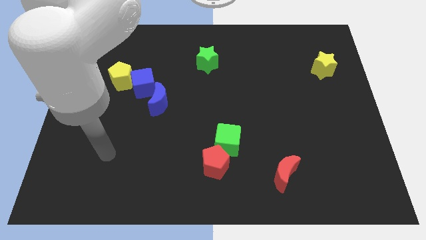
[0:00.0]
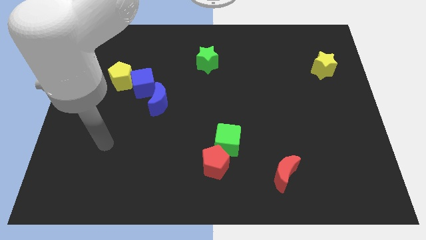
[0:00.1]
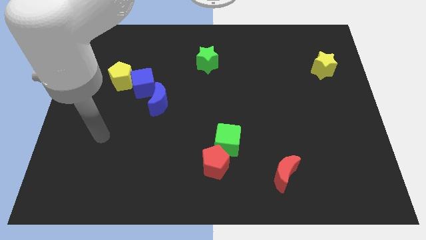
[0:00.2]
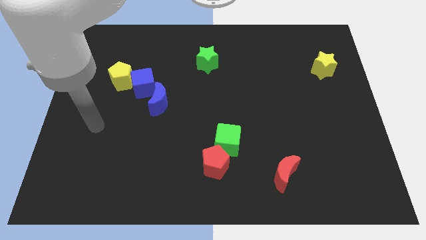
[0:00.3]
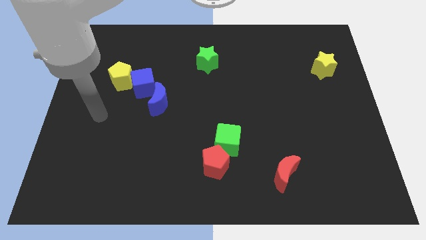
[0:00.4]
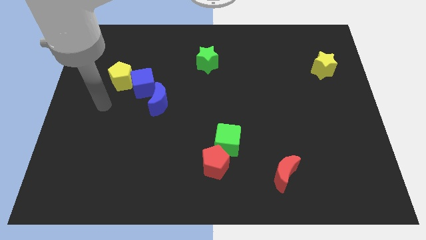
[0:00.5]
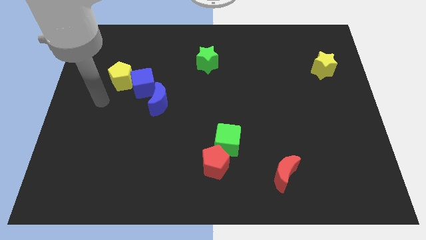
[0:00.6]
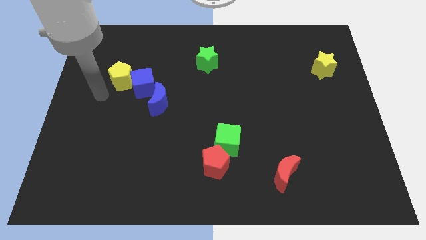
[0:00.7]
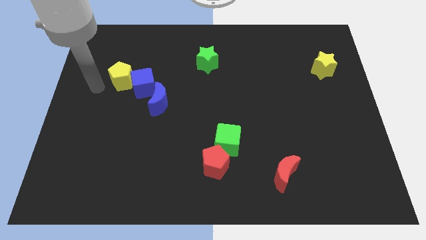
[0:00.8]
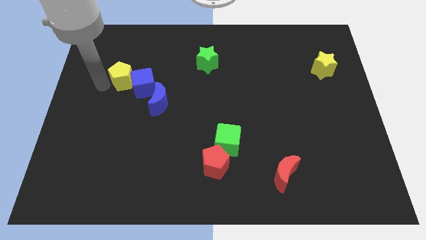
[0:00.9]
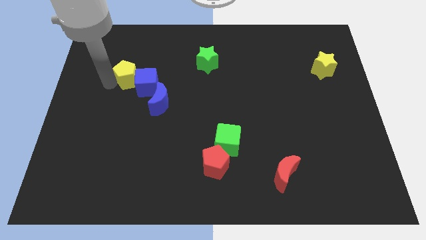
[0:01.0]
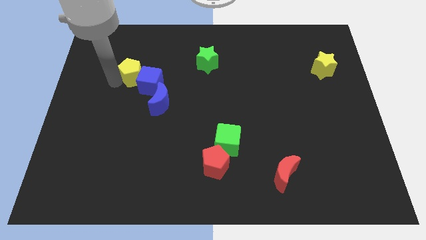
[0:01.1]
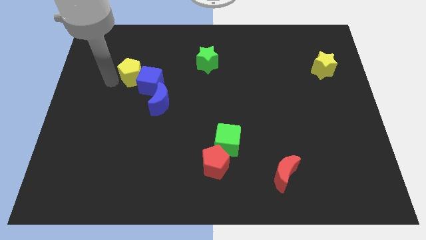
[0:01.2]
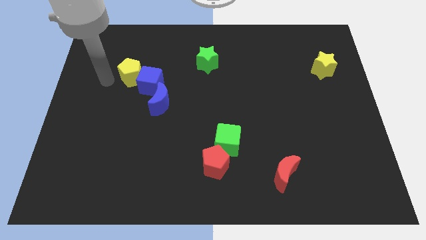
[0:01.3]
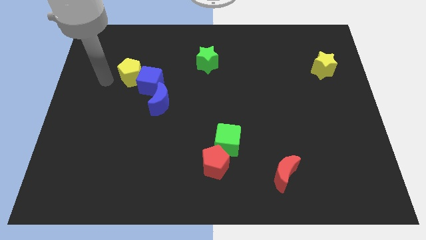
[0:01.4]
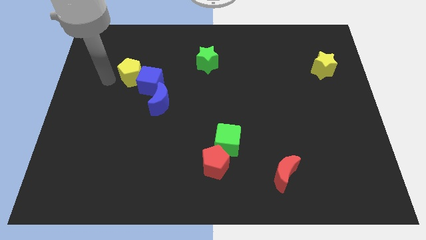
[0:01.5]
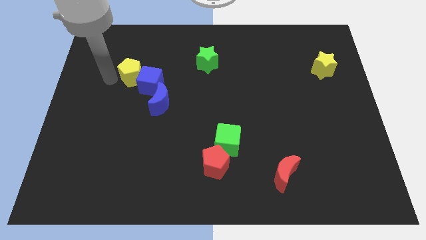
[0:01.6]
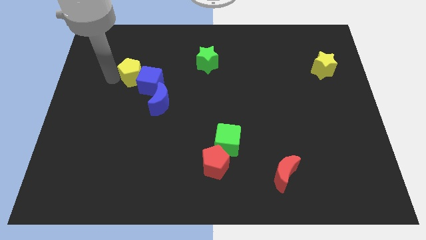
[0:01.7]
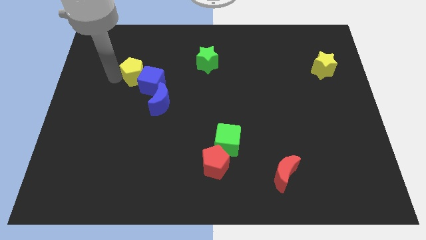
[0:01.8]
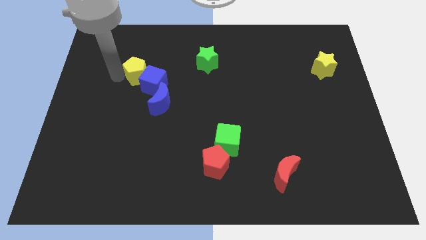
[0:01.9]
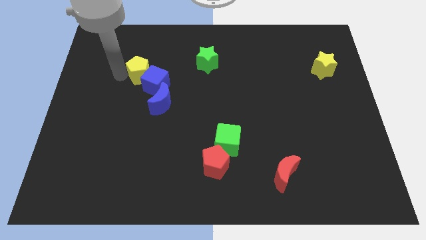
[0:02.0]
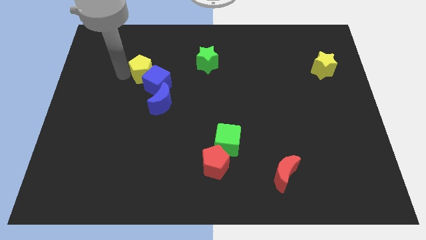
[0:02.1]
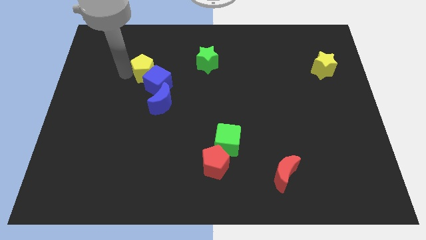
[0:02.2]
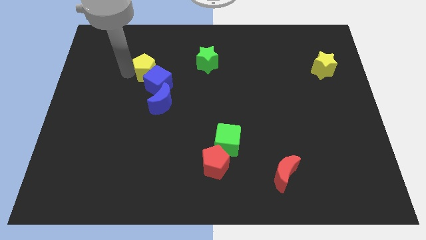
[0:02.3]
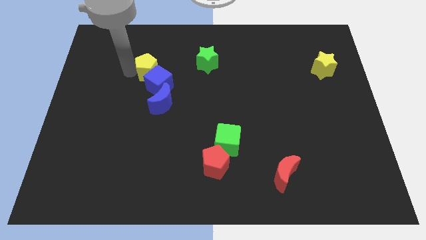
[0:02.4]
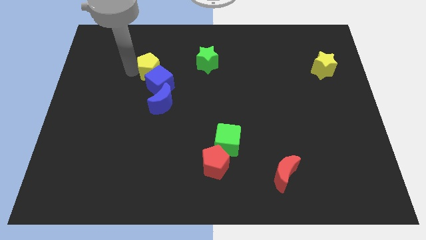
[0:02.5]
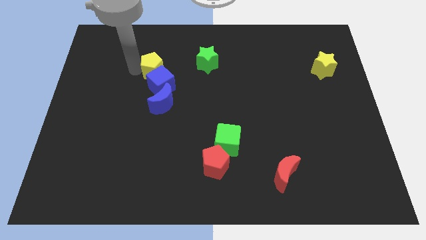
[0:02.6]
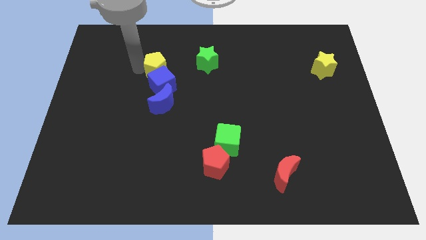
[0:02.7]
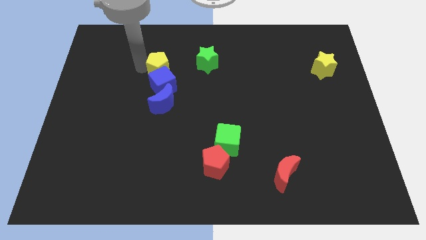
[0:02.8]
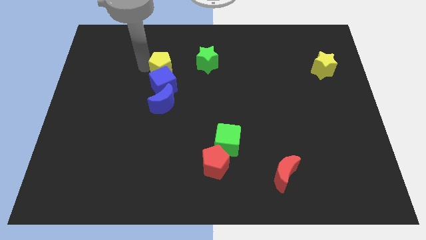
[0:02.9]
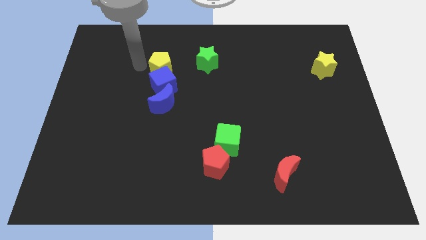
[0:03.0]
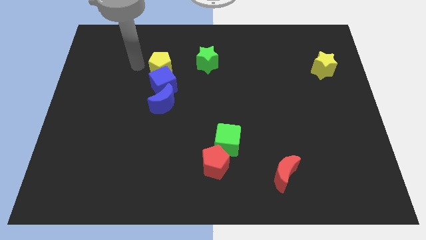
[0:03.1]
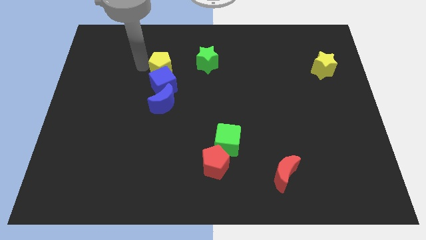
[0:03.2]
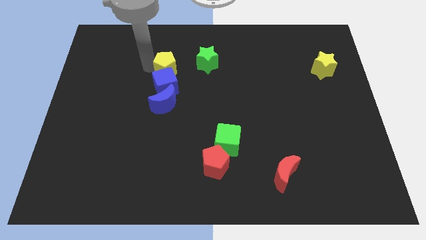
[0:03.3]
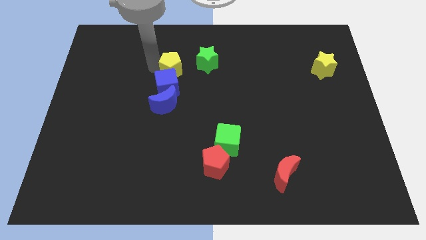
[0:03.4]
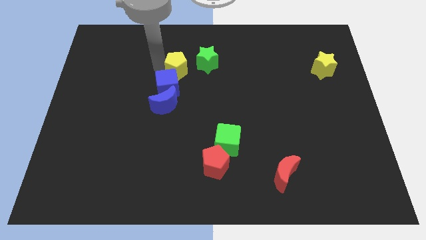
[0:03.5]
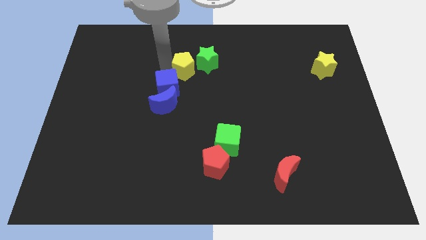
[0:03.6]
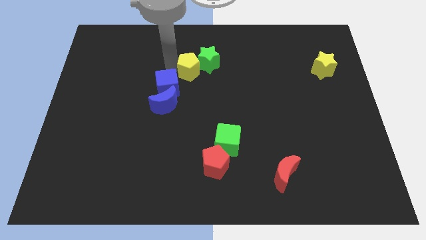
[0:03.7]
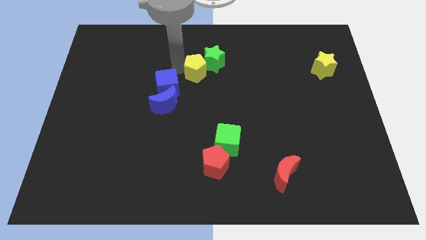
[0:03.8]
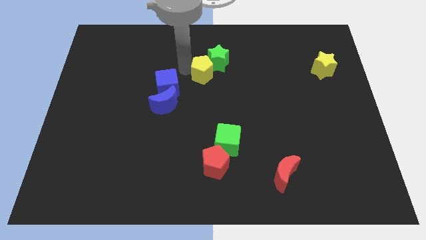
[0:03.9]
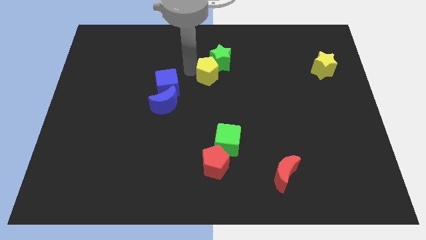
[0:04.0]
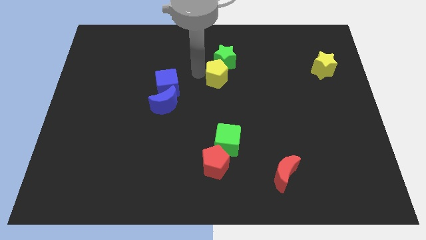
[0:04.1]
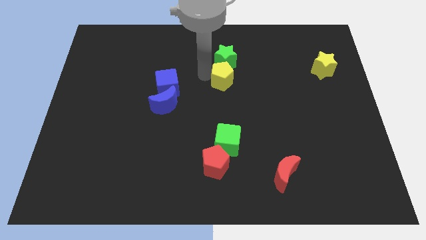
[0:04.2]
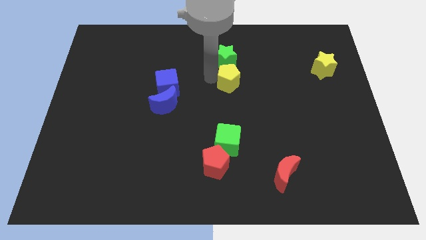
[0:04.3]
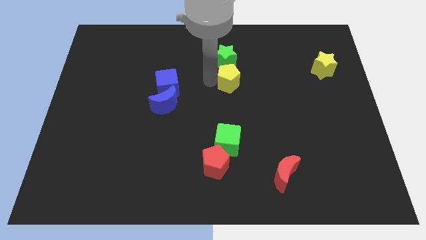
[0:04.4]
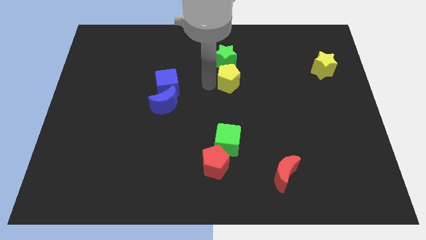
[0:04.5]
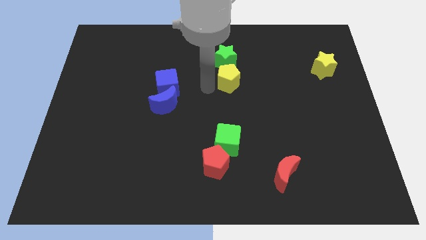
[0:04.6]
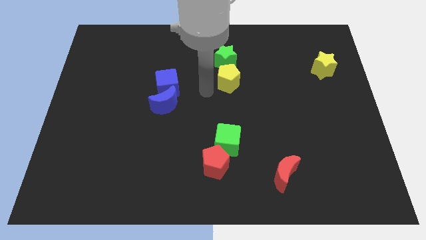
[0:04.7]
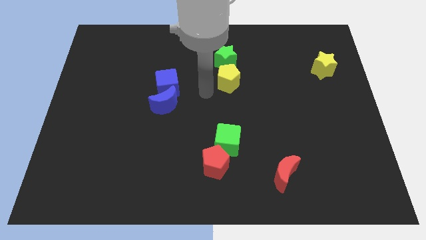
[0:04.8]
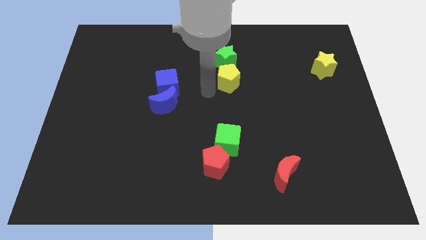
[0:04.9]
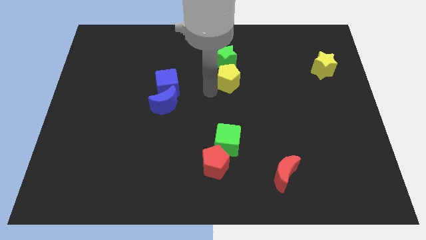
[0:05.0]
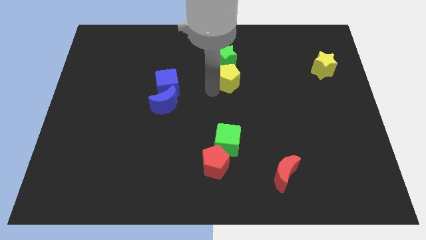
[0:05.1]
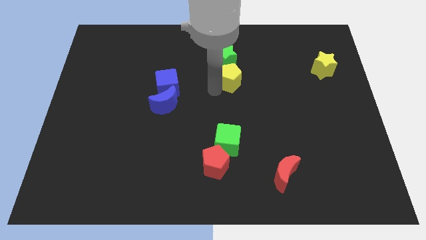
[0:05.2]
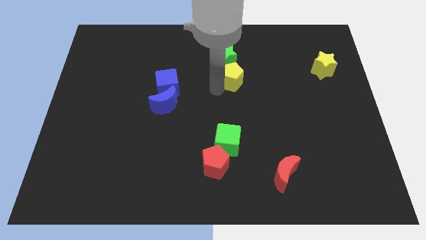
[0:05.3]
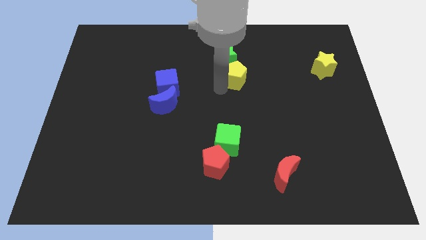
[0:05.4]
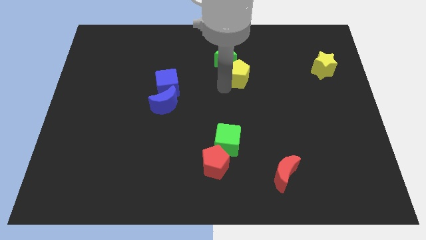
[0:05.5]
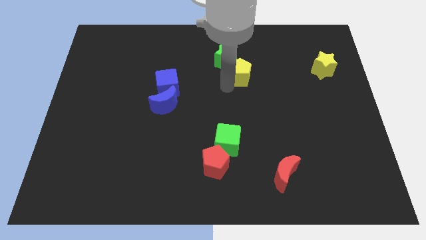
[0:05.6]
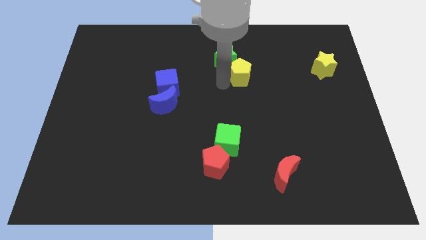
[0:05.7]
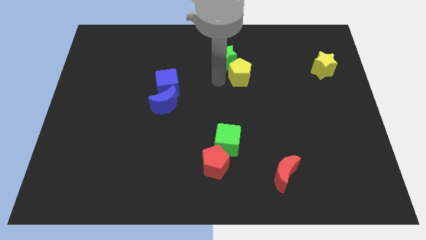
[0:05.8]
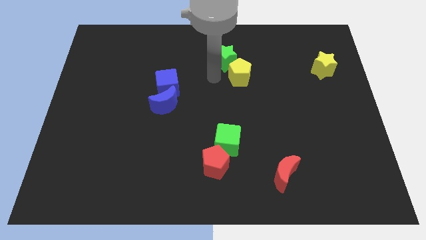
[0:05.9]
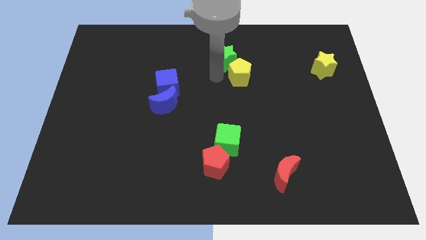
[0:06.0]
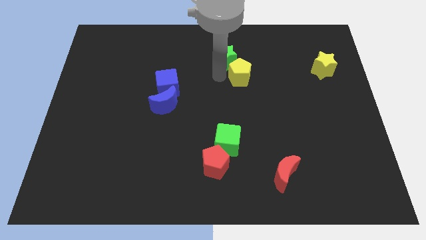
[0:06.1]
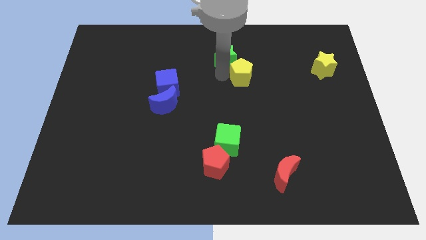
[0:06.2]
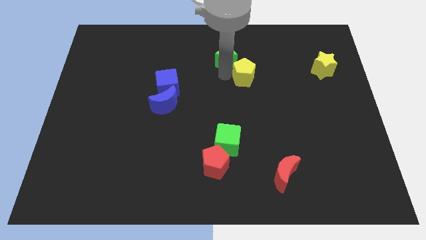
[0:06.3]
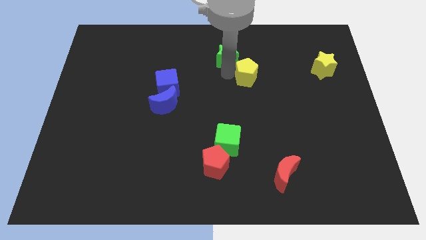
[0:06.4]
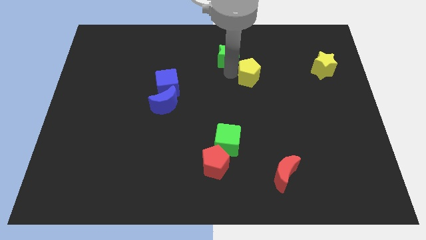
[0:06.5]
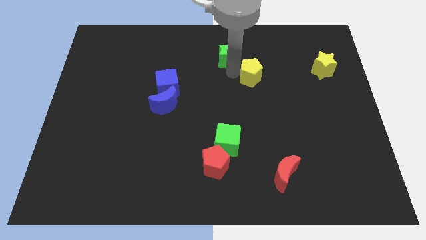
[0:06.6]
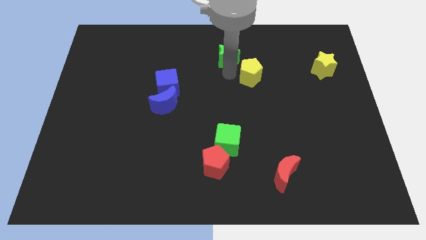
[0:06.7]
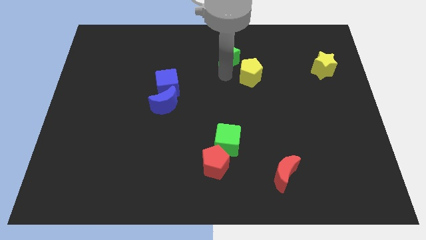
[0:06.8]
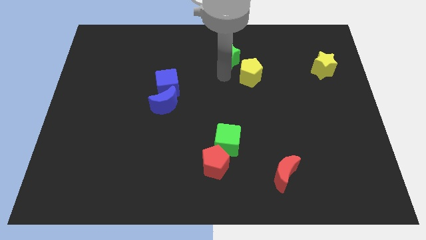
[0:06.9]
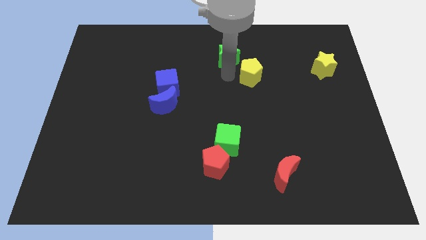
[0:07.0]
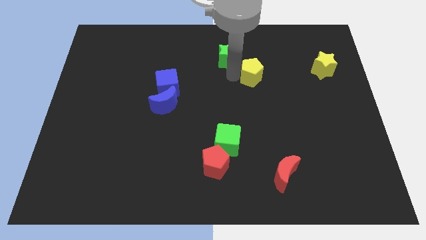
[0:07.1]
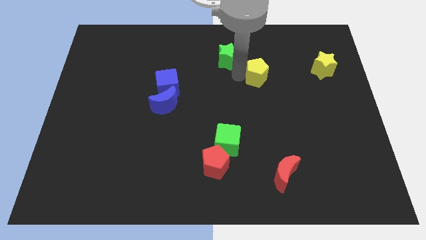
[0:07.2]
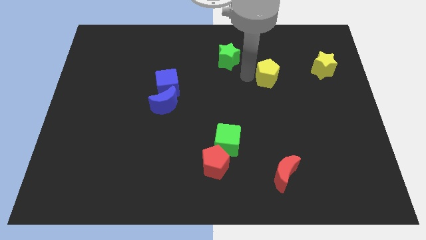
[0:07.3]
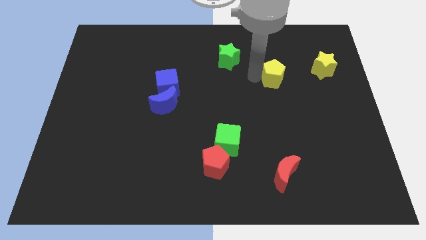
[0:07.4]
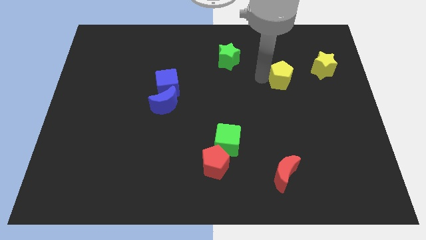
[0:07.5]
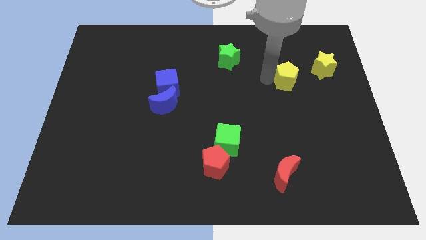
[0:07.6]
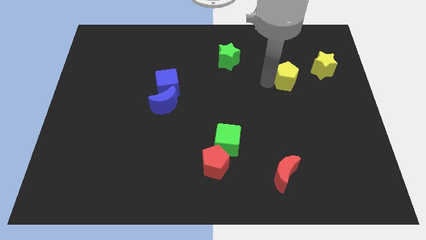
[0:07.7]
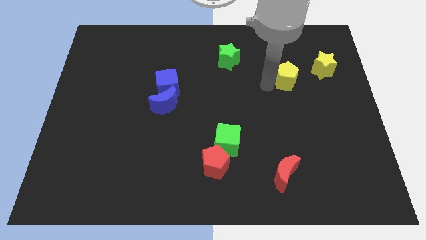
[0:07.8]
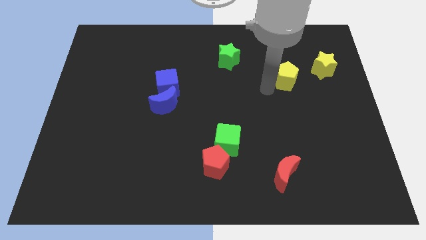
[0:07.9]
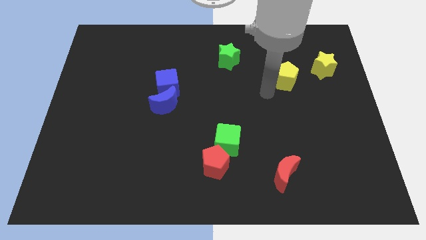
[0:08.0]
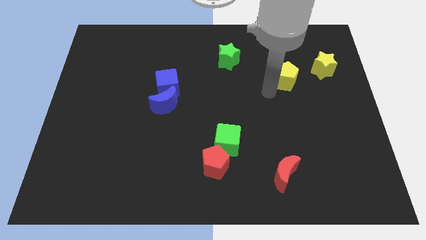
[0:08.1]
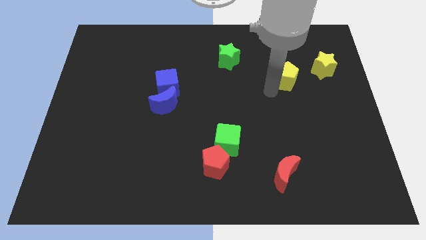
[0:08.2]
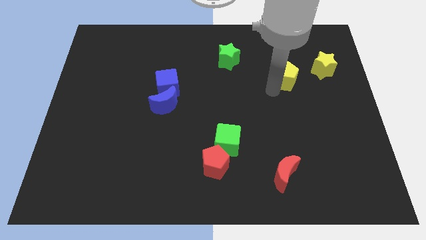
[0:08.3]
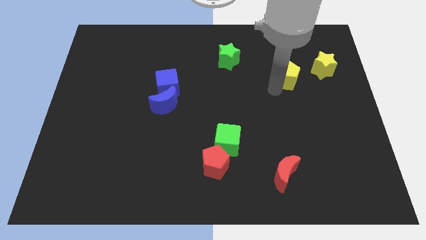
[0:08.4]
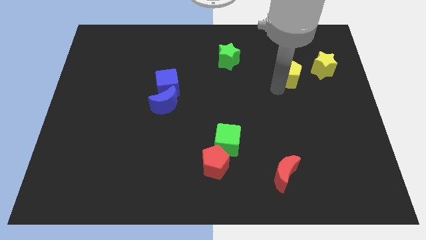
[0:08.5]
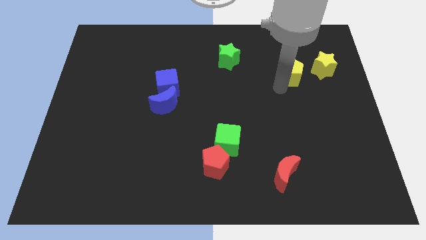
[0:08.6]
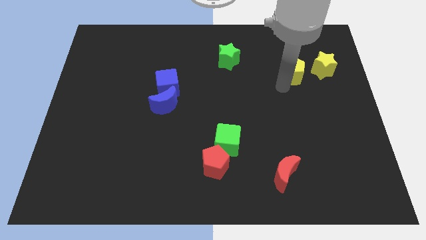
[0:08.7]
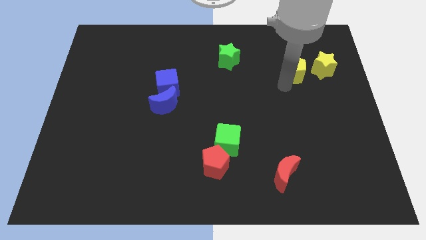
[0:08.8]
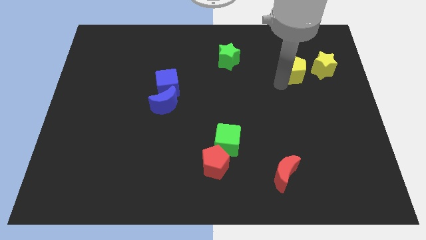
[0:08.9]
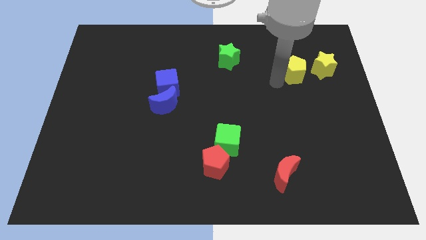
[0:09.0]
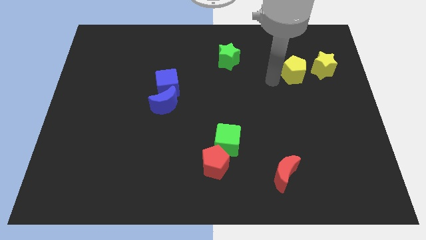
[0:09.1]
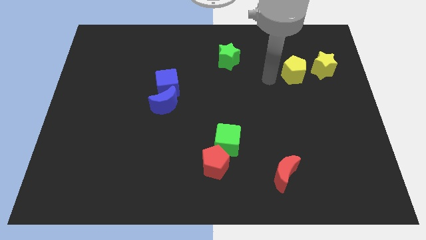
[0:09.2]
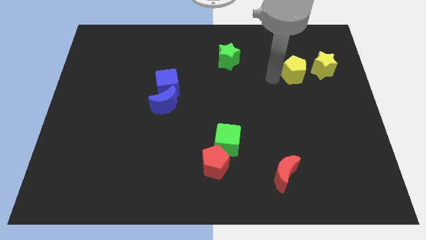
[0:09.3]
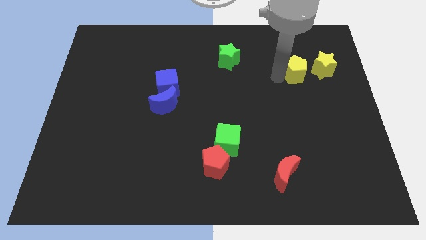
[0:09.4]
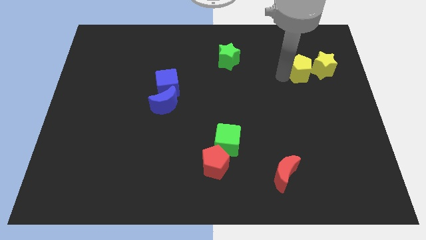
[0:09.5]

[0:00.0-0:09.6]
move the yellow pentagon next to the yellow star
